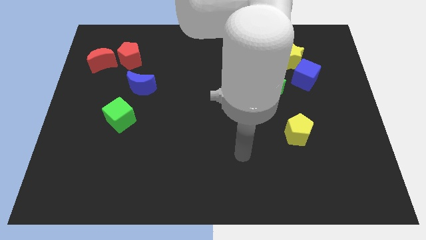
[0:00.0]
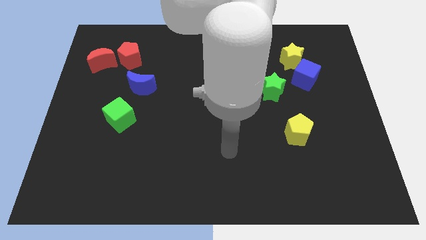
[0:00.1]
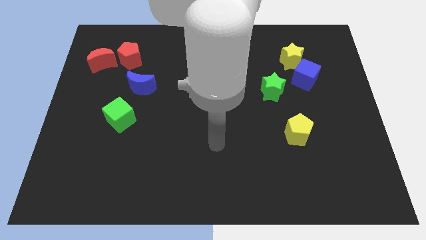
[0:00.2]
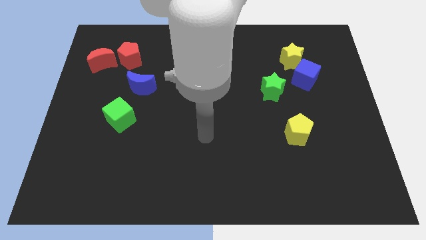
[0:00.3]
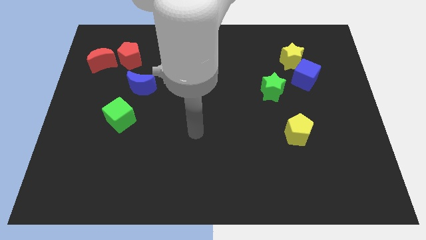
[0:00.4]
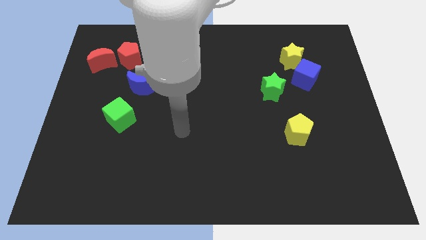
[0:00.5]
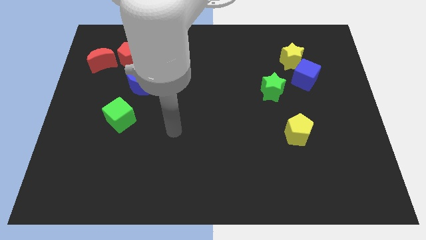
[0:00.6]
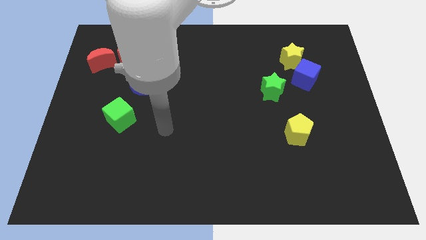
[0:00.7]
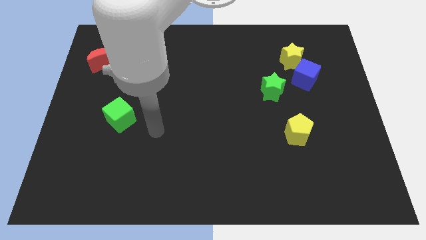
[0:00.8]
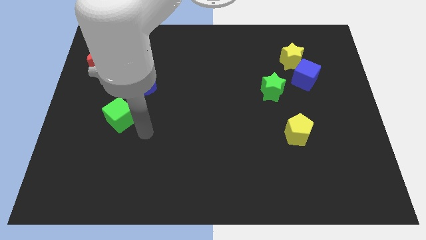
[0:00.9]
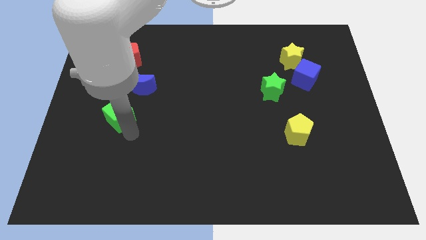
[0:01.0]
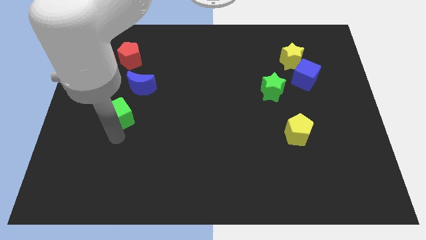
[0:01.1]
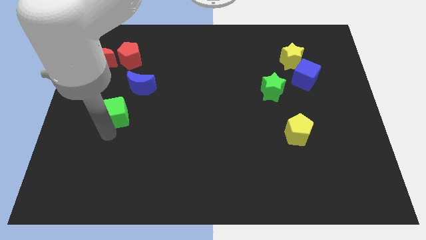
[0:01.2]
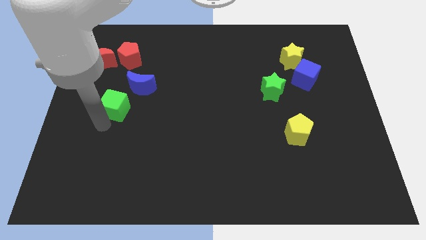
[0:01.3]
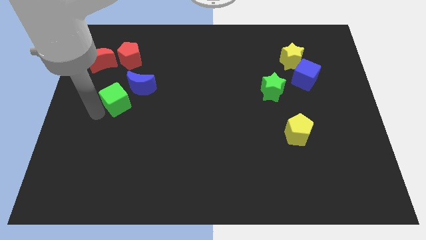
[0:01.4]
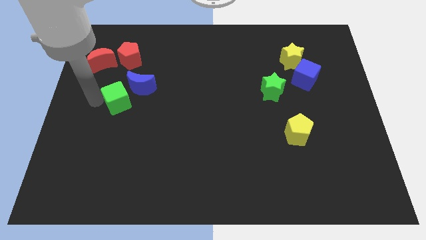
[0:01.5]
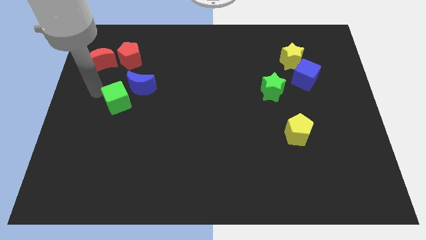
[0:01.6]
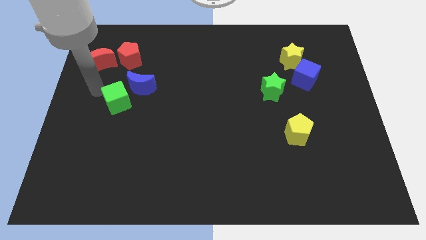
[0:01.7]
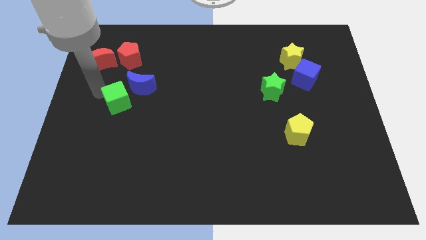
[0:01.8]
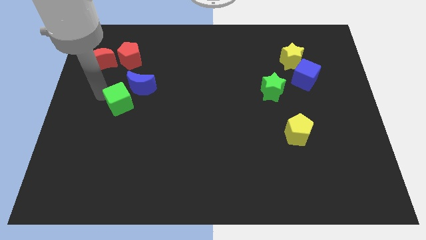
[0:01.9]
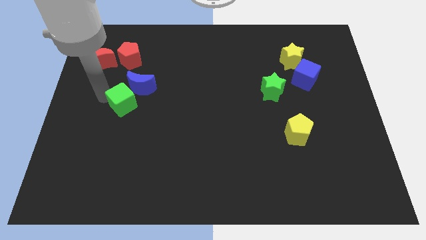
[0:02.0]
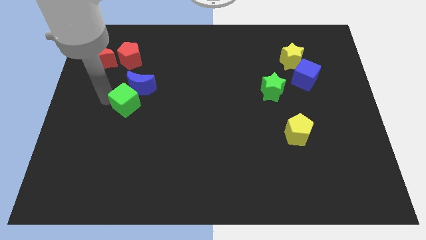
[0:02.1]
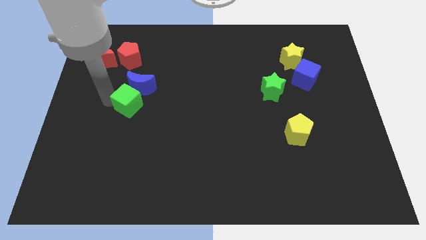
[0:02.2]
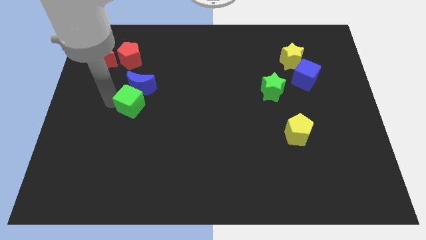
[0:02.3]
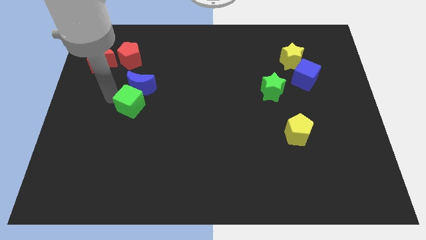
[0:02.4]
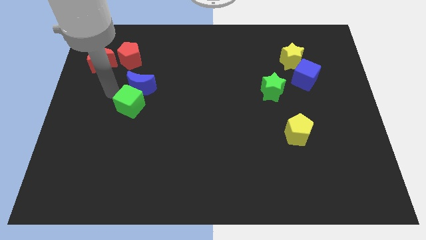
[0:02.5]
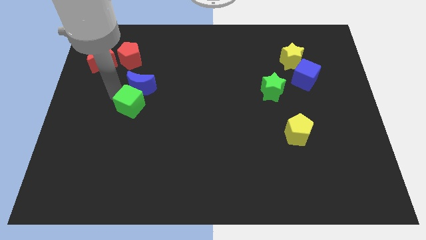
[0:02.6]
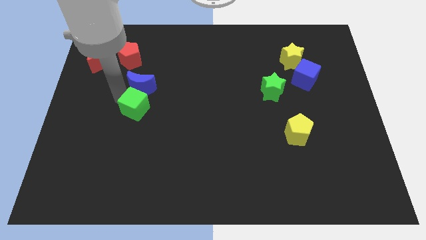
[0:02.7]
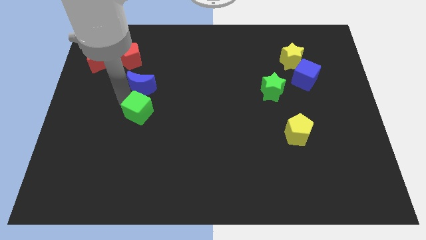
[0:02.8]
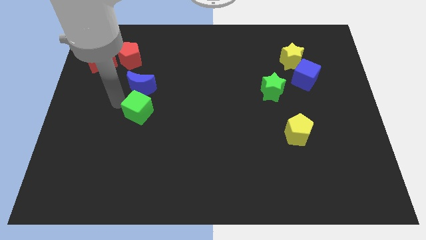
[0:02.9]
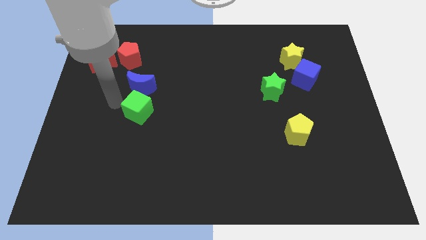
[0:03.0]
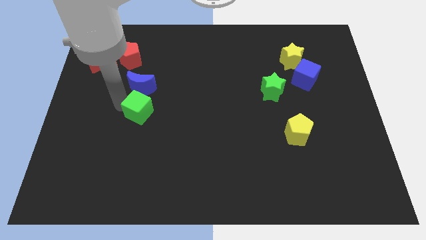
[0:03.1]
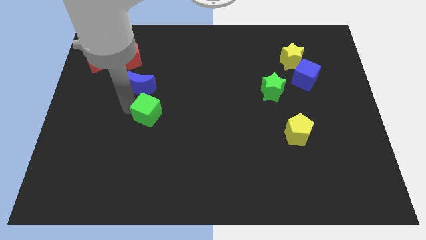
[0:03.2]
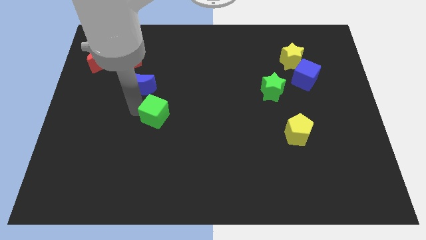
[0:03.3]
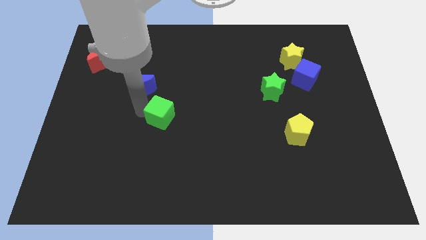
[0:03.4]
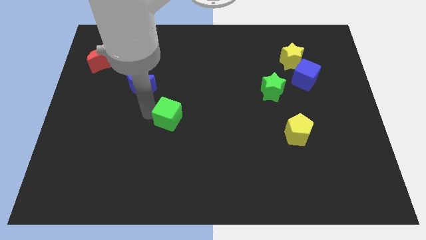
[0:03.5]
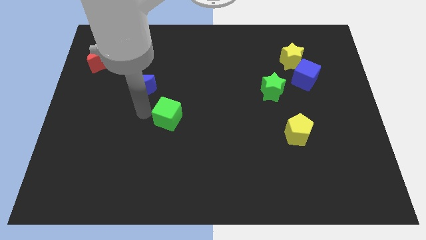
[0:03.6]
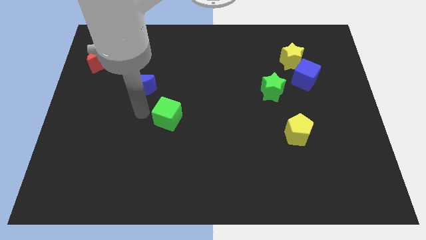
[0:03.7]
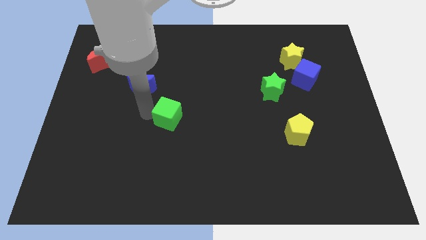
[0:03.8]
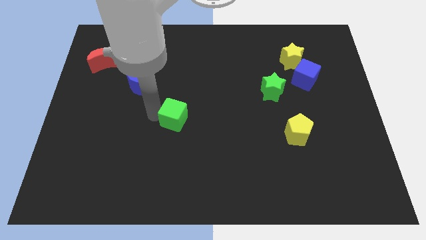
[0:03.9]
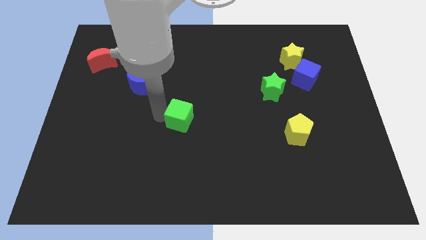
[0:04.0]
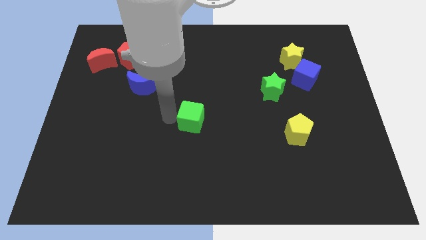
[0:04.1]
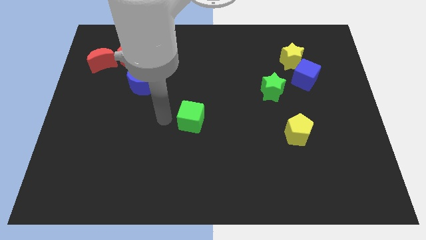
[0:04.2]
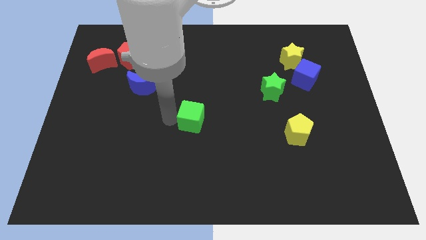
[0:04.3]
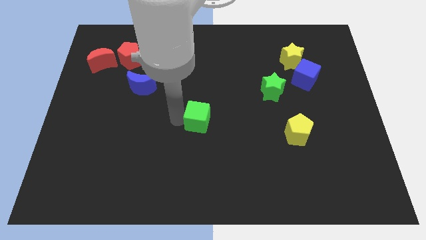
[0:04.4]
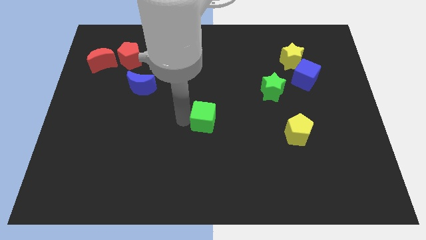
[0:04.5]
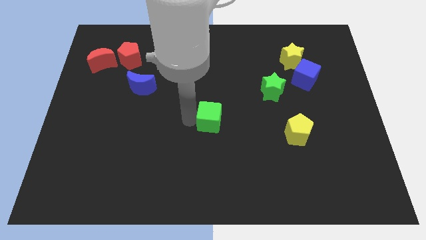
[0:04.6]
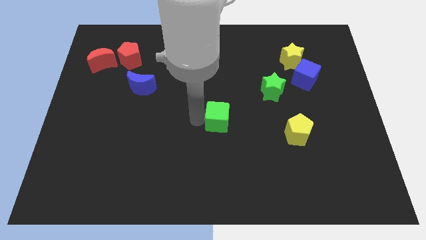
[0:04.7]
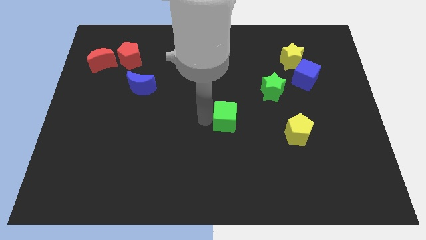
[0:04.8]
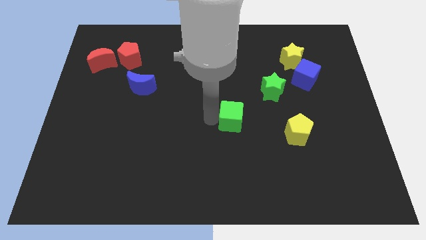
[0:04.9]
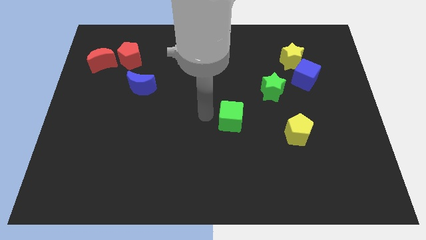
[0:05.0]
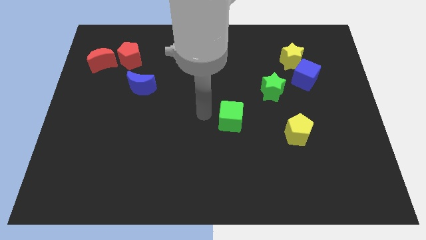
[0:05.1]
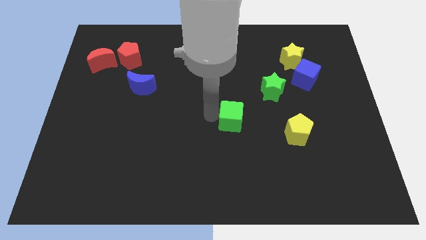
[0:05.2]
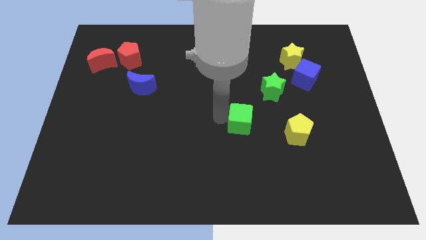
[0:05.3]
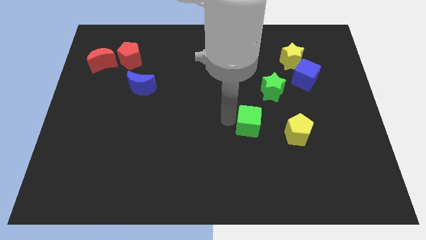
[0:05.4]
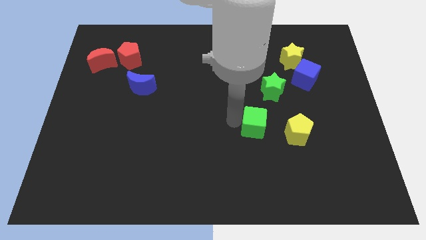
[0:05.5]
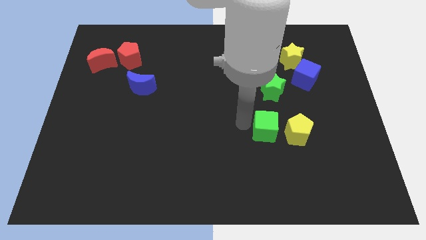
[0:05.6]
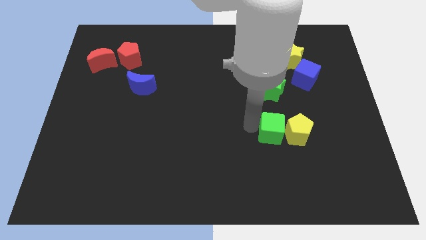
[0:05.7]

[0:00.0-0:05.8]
put the green cube close to the yellow pentagon

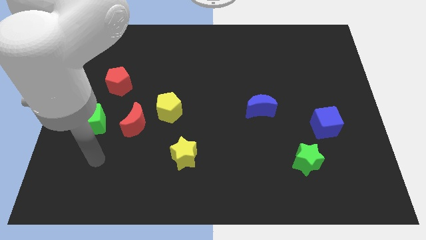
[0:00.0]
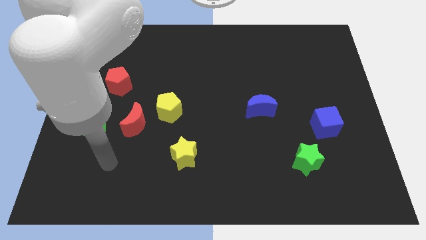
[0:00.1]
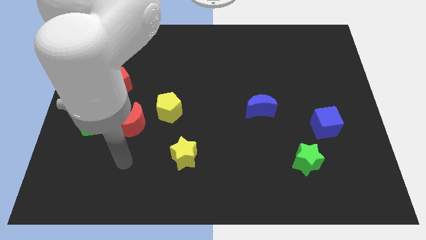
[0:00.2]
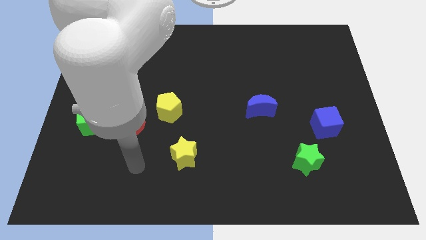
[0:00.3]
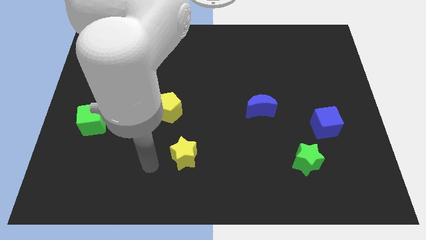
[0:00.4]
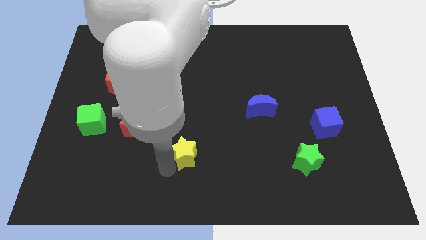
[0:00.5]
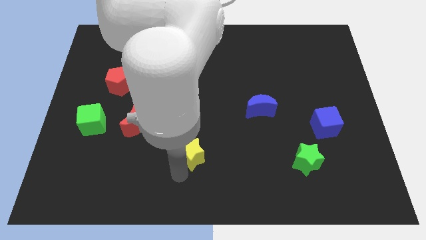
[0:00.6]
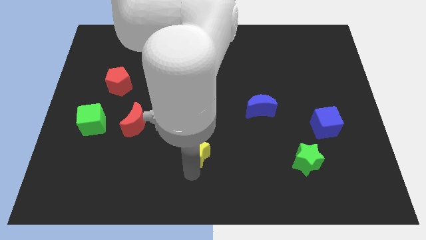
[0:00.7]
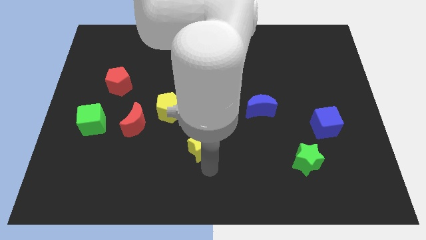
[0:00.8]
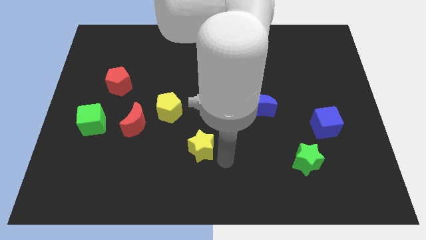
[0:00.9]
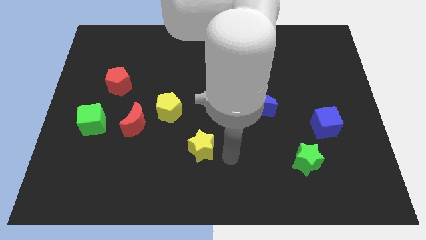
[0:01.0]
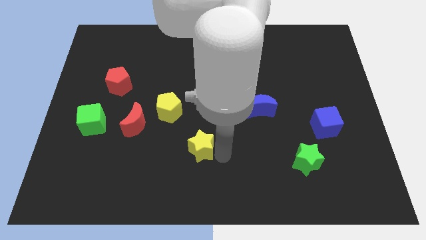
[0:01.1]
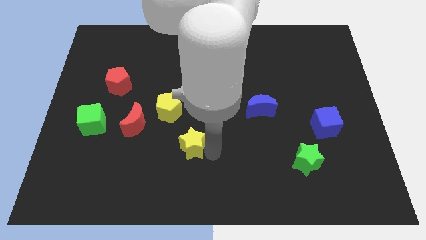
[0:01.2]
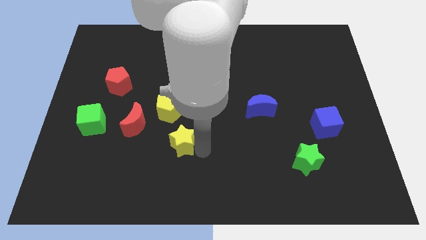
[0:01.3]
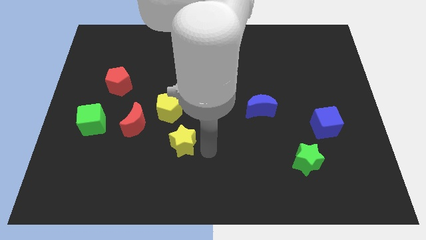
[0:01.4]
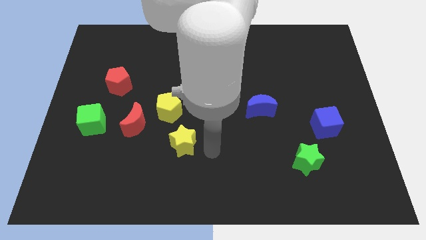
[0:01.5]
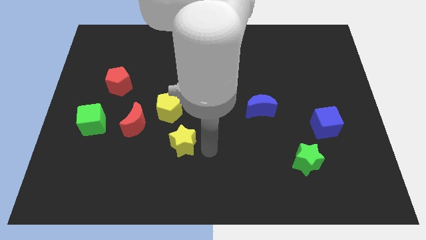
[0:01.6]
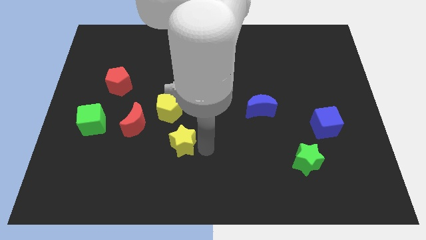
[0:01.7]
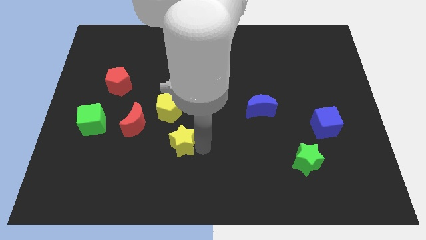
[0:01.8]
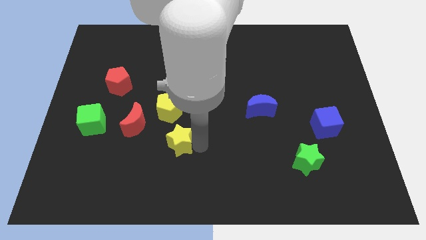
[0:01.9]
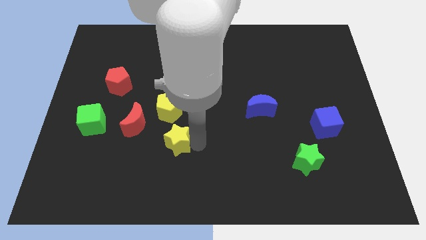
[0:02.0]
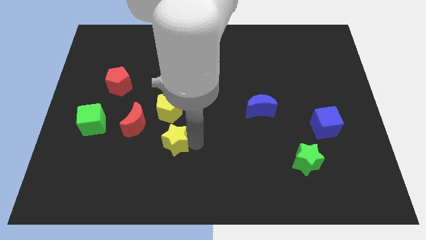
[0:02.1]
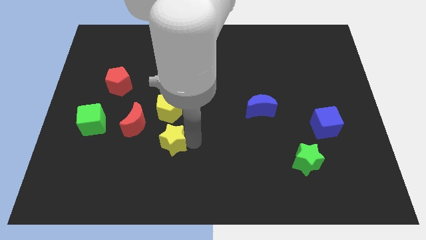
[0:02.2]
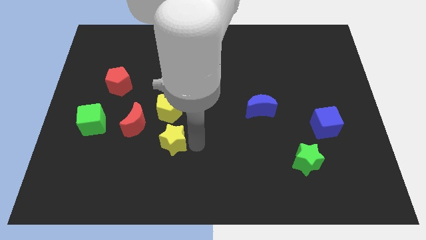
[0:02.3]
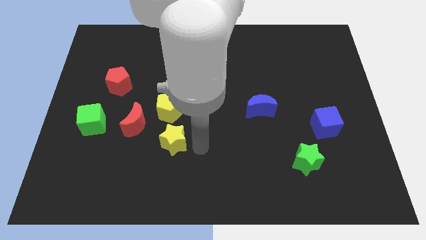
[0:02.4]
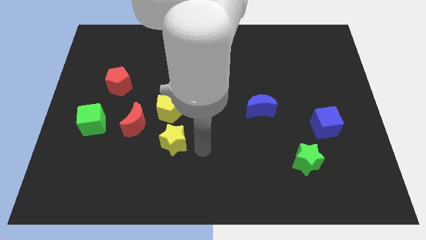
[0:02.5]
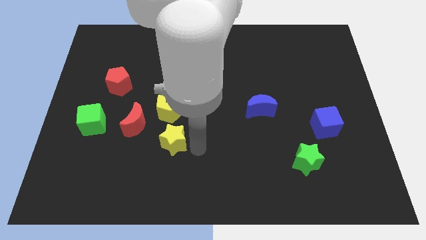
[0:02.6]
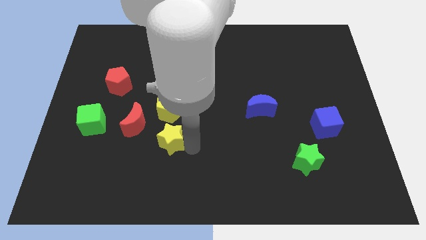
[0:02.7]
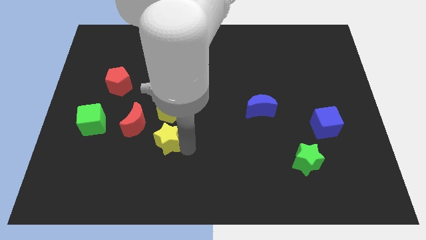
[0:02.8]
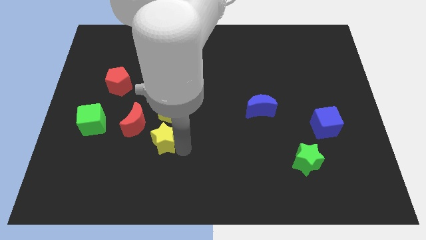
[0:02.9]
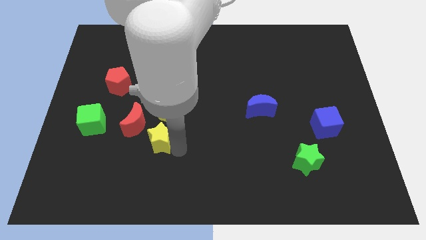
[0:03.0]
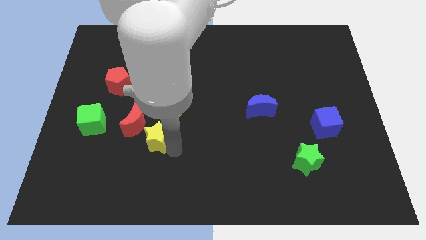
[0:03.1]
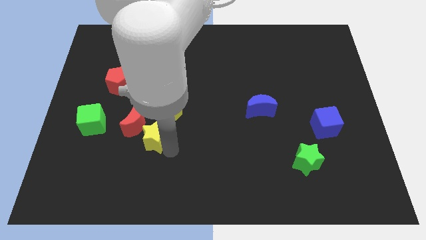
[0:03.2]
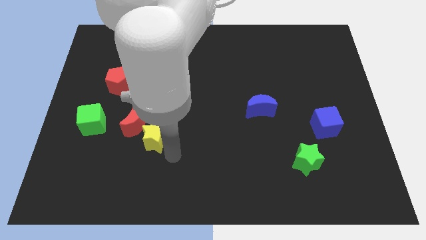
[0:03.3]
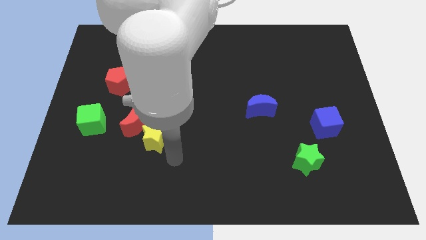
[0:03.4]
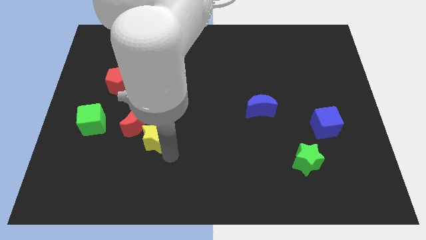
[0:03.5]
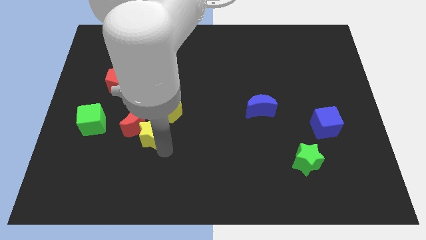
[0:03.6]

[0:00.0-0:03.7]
push the yellow star towards the red moon
